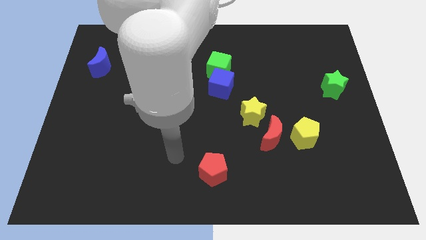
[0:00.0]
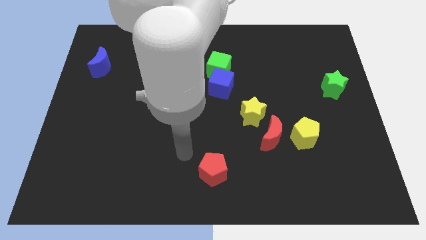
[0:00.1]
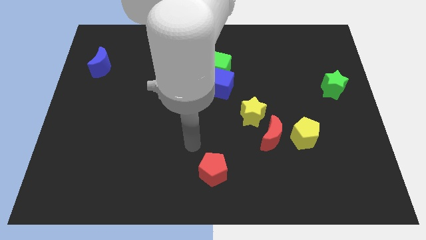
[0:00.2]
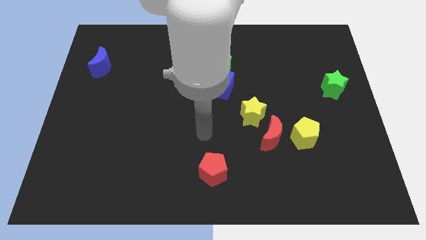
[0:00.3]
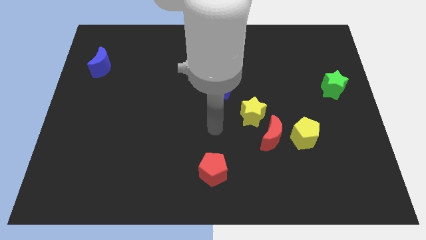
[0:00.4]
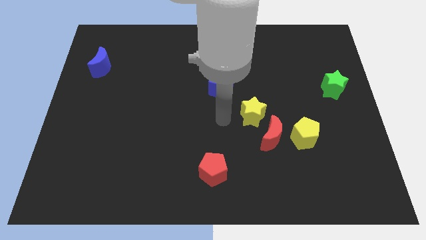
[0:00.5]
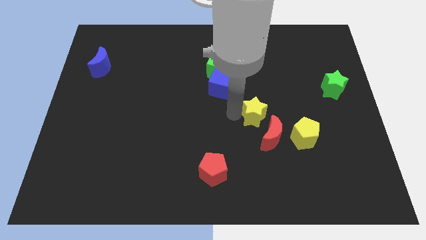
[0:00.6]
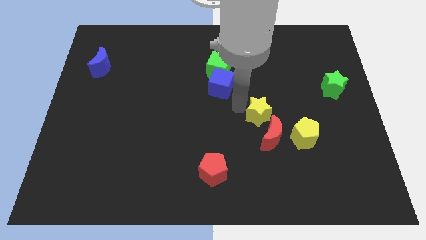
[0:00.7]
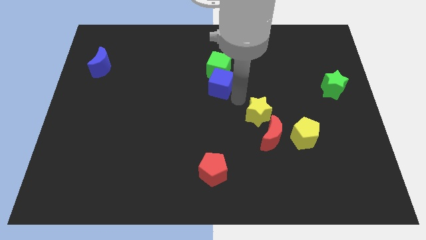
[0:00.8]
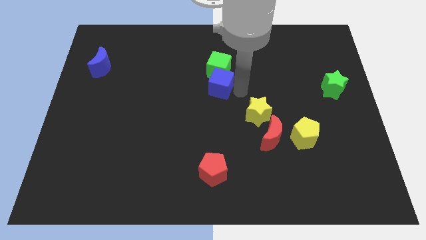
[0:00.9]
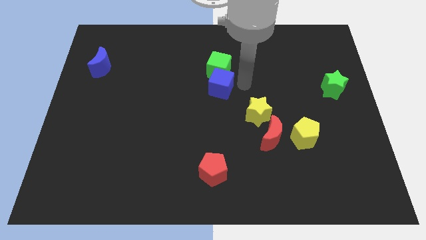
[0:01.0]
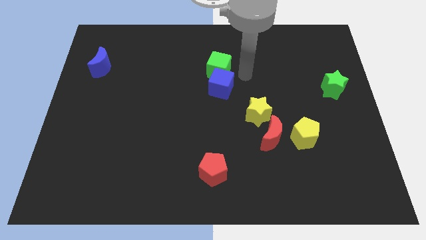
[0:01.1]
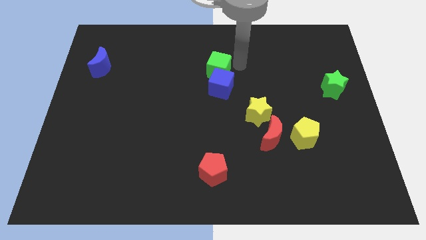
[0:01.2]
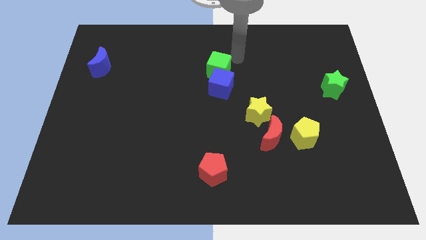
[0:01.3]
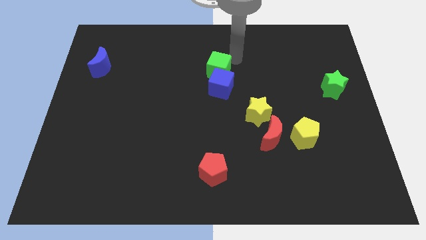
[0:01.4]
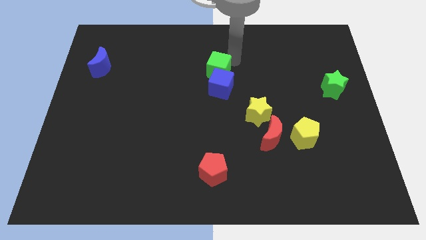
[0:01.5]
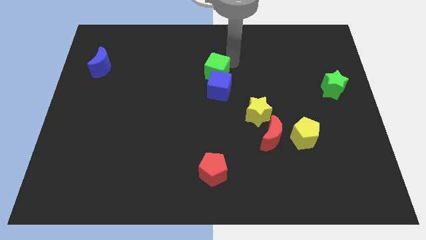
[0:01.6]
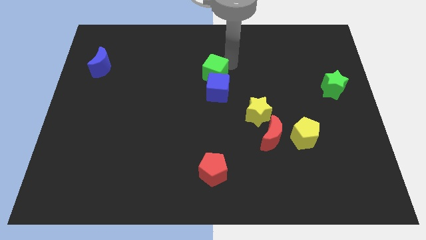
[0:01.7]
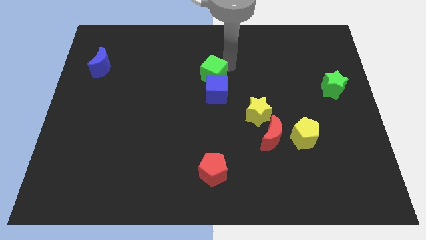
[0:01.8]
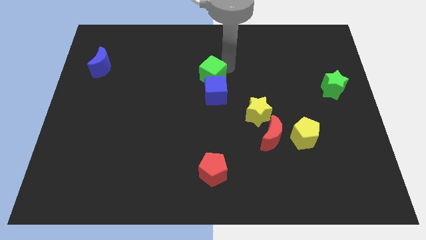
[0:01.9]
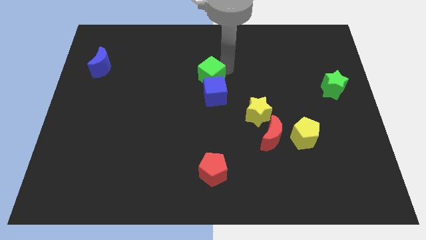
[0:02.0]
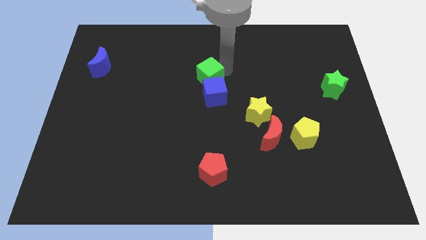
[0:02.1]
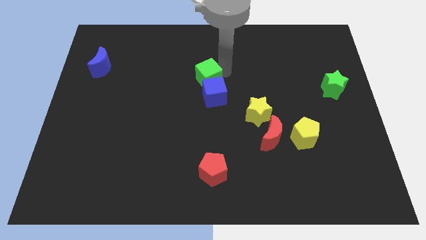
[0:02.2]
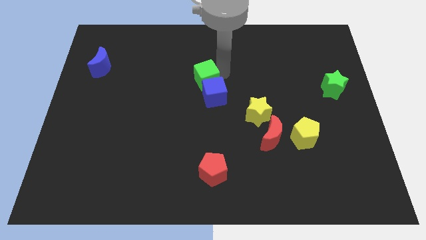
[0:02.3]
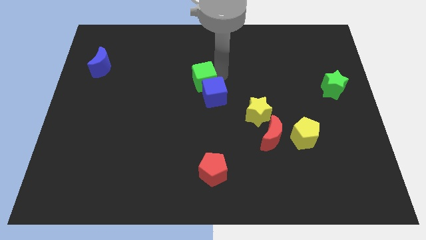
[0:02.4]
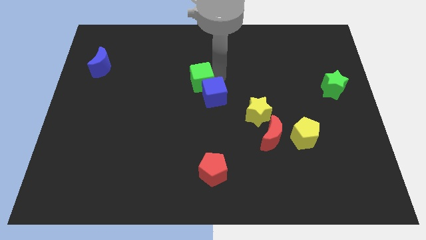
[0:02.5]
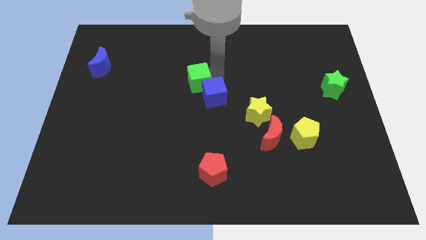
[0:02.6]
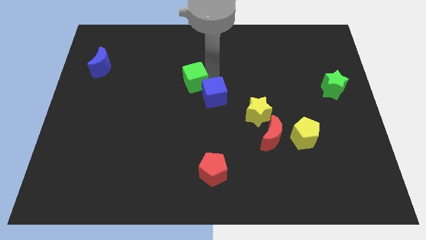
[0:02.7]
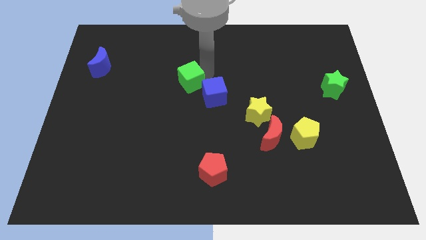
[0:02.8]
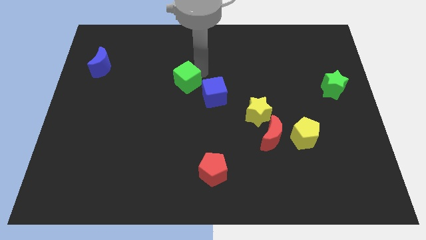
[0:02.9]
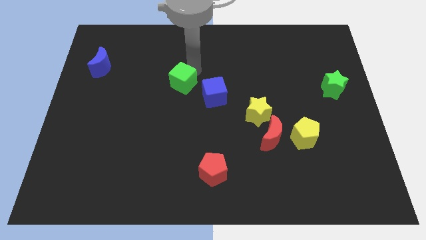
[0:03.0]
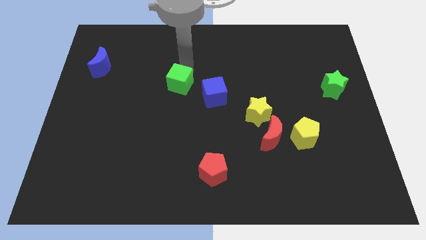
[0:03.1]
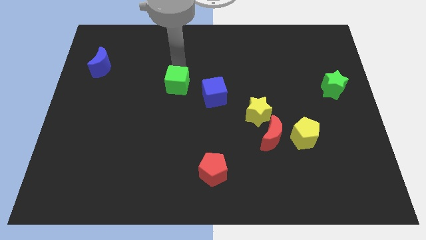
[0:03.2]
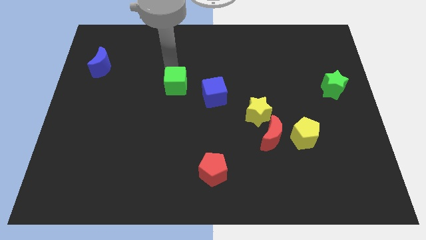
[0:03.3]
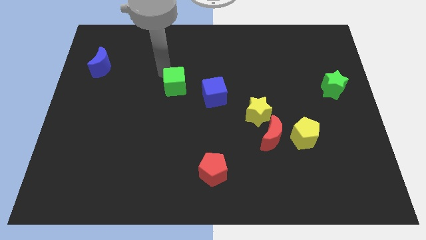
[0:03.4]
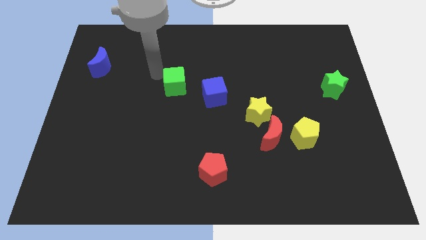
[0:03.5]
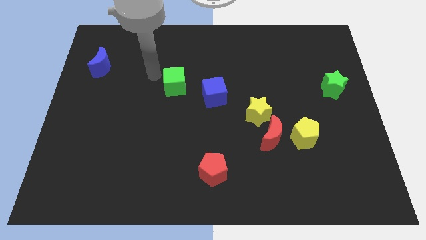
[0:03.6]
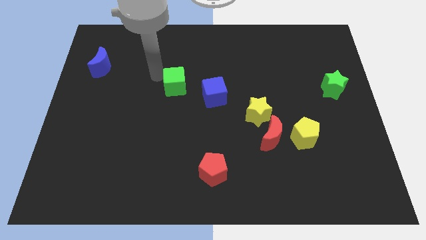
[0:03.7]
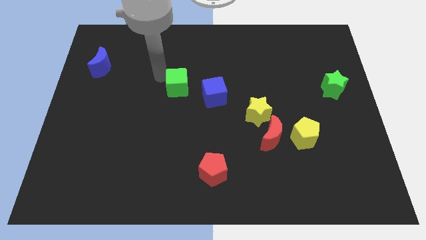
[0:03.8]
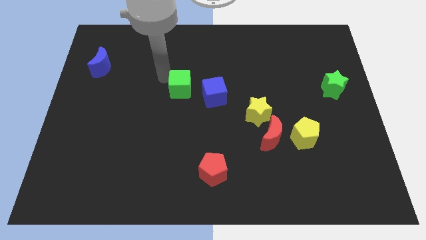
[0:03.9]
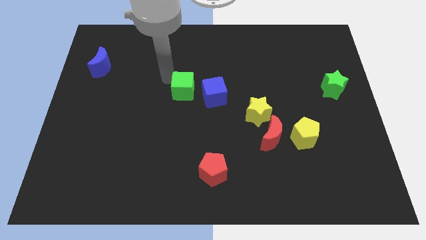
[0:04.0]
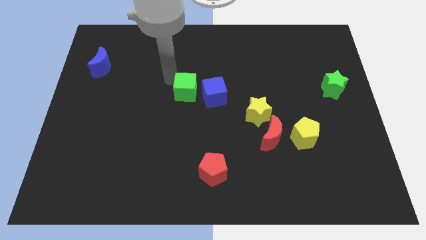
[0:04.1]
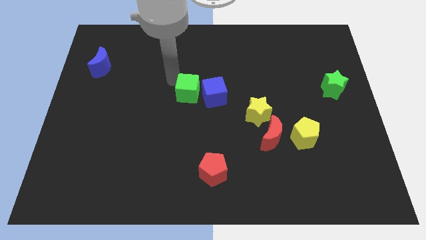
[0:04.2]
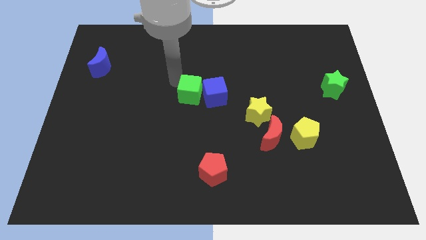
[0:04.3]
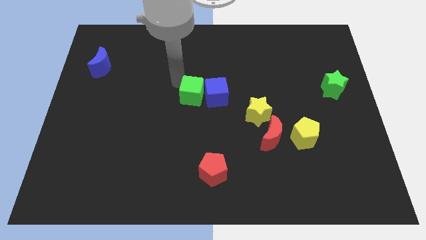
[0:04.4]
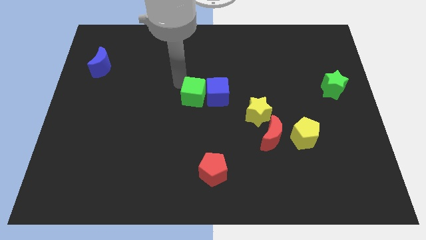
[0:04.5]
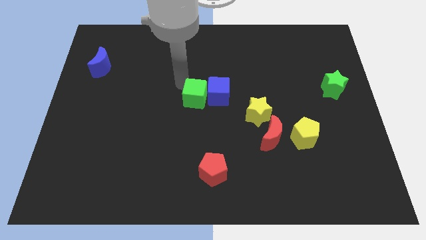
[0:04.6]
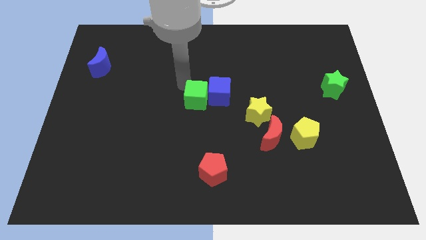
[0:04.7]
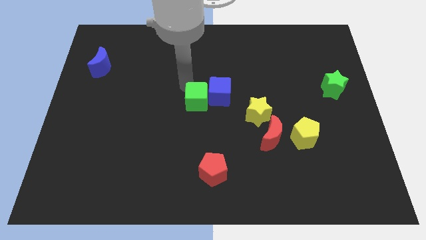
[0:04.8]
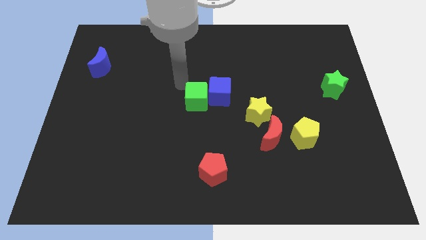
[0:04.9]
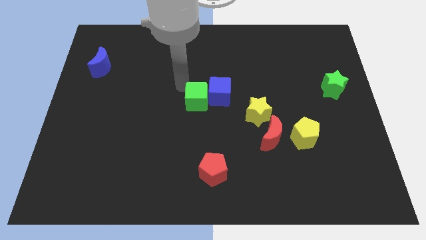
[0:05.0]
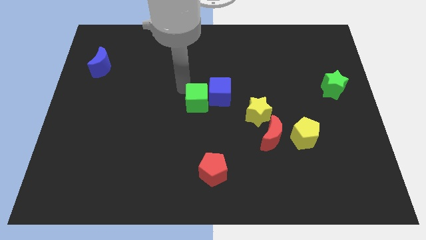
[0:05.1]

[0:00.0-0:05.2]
push the green cube to the left side of the yellow star

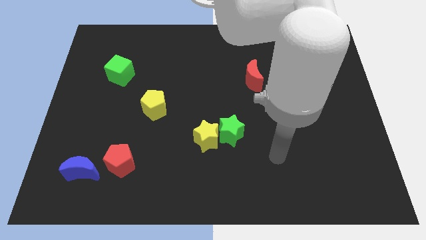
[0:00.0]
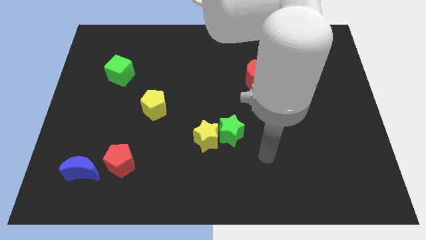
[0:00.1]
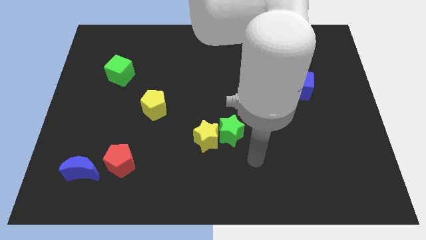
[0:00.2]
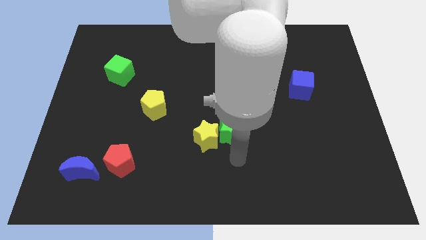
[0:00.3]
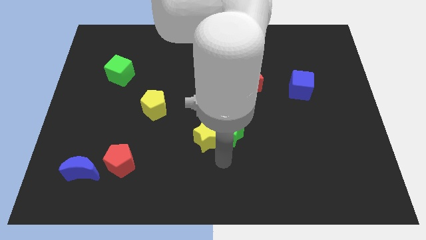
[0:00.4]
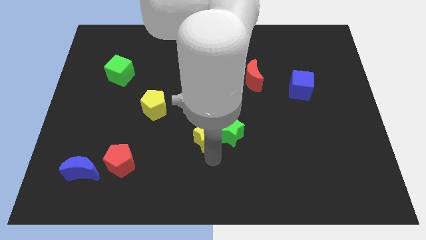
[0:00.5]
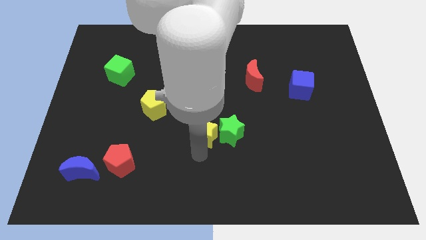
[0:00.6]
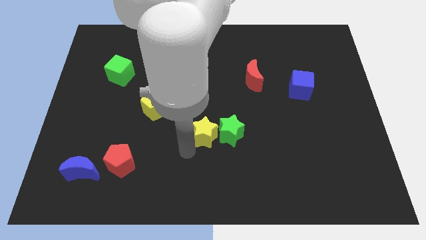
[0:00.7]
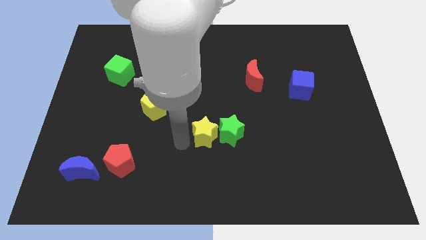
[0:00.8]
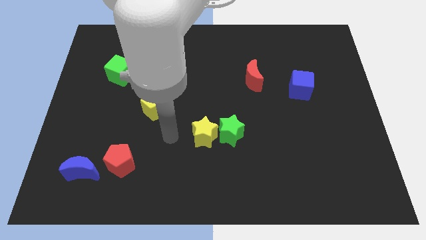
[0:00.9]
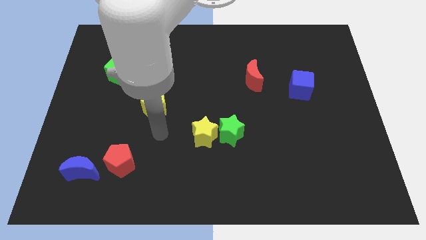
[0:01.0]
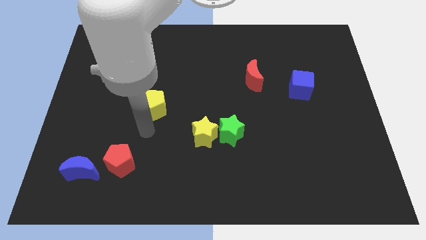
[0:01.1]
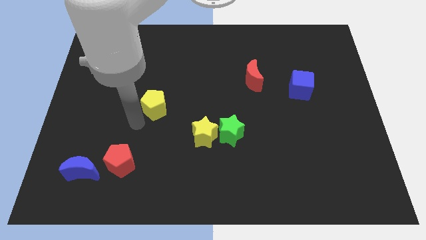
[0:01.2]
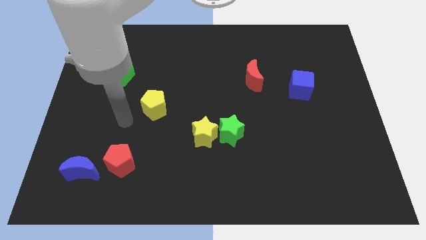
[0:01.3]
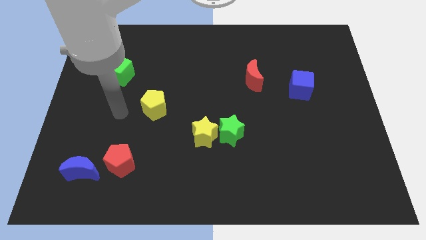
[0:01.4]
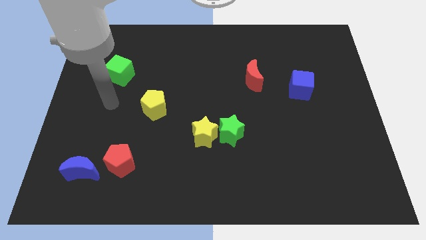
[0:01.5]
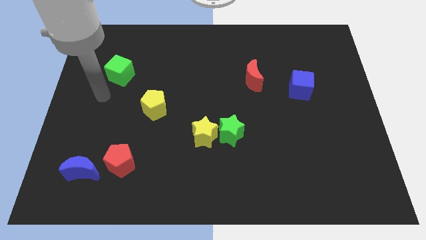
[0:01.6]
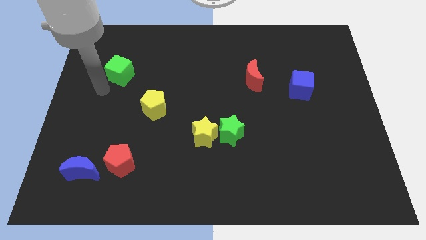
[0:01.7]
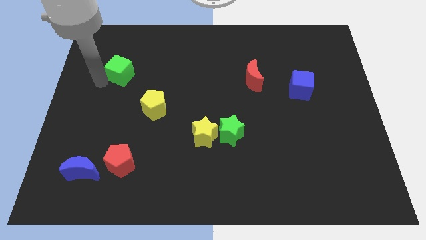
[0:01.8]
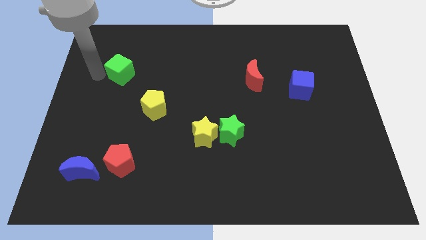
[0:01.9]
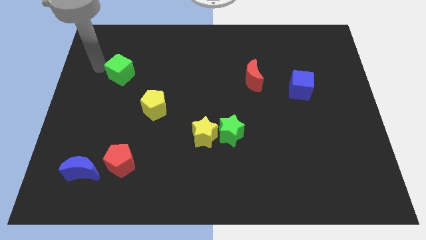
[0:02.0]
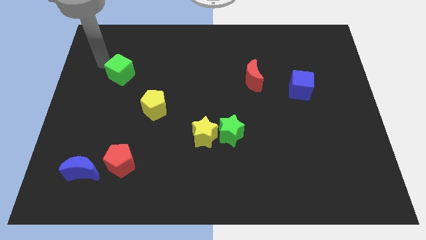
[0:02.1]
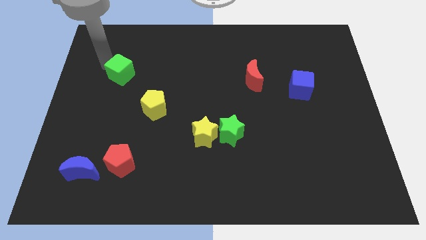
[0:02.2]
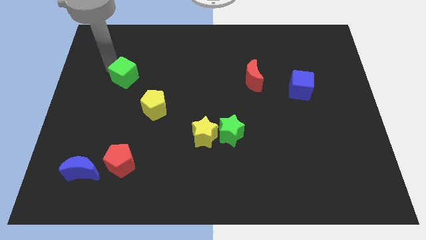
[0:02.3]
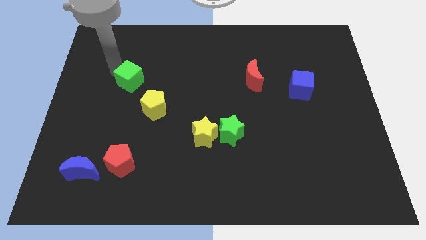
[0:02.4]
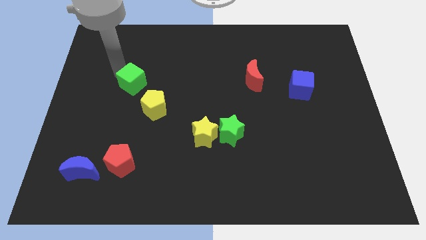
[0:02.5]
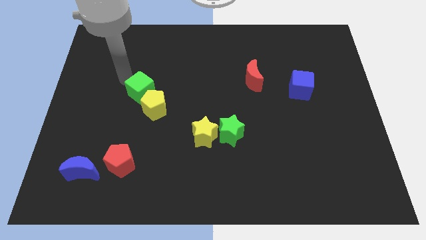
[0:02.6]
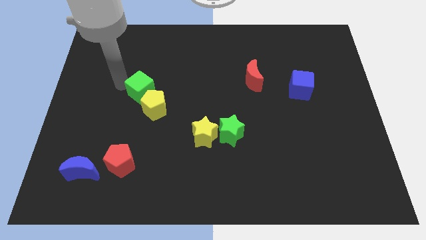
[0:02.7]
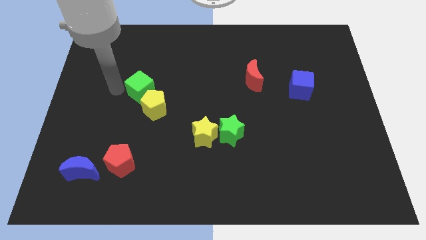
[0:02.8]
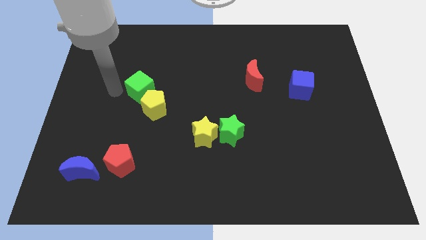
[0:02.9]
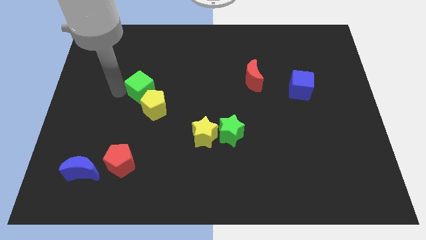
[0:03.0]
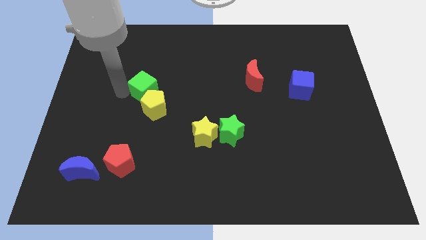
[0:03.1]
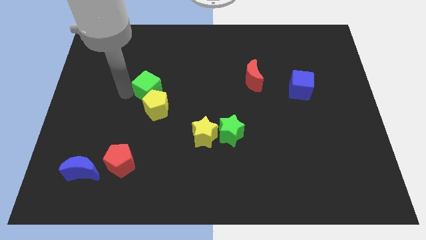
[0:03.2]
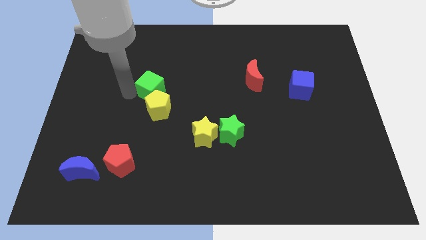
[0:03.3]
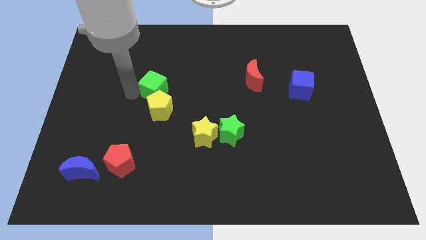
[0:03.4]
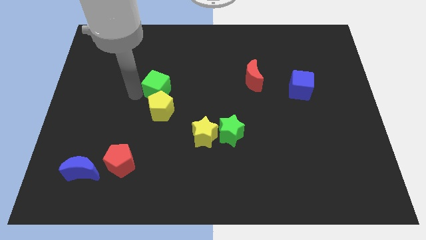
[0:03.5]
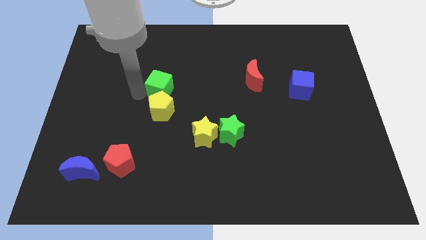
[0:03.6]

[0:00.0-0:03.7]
push the green cube diagonally up and to the right of the yellow pentagon
